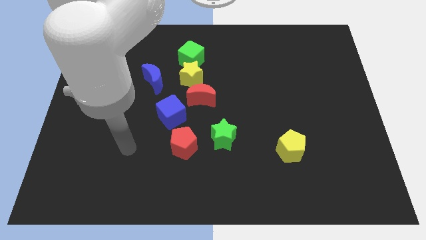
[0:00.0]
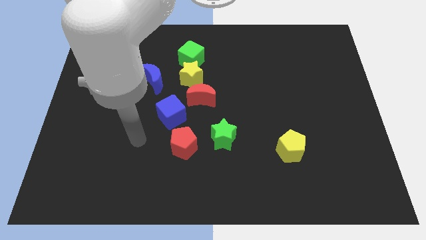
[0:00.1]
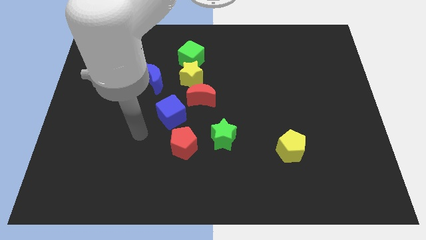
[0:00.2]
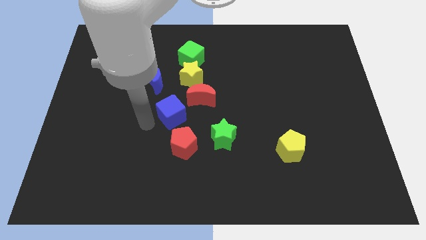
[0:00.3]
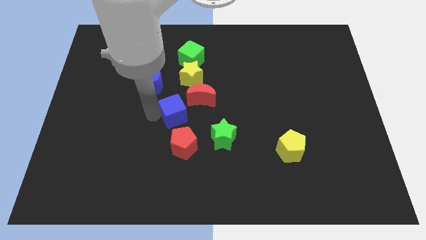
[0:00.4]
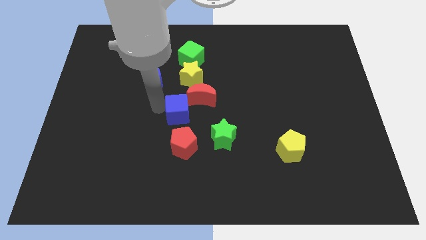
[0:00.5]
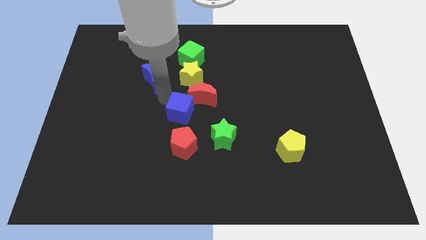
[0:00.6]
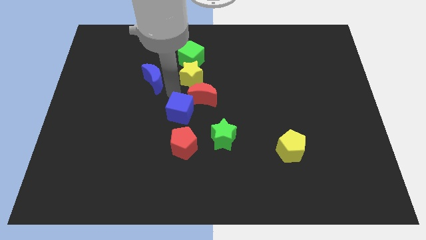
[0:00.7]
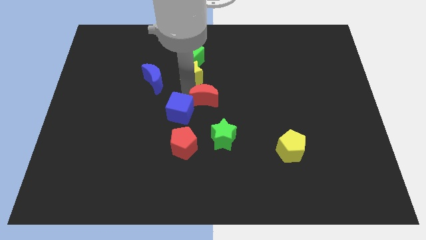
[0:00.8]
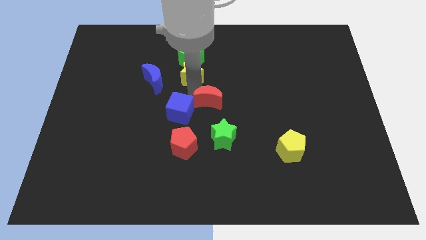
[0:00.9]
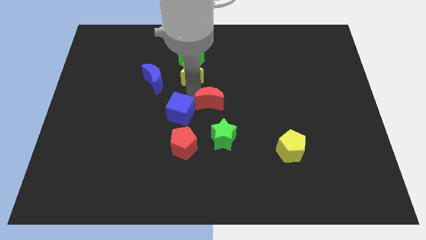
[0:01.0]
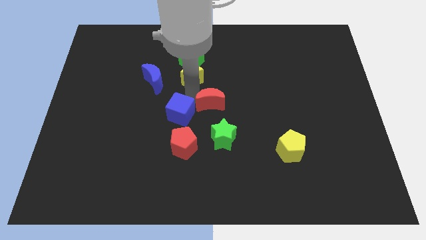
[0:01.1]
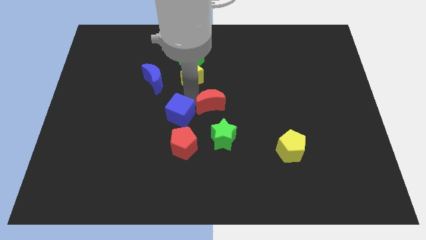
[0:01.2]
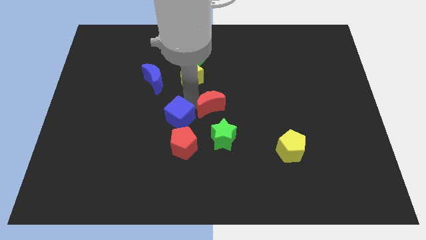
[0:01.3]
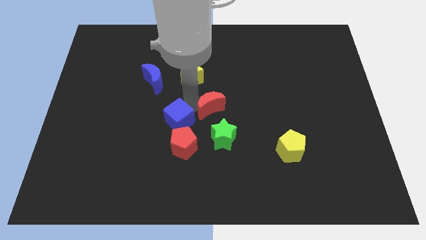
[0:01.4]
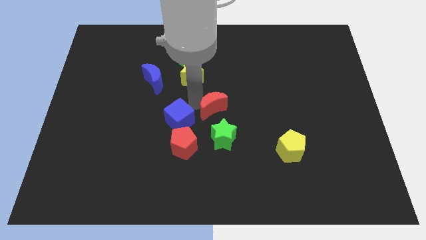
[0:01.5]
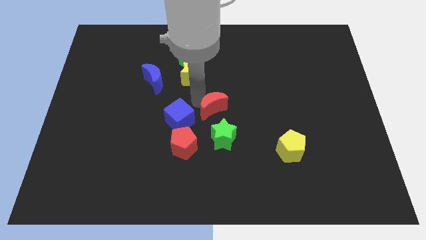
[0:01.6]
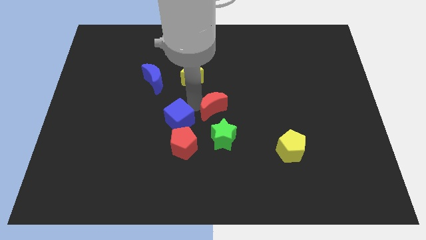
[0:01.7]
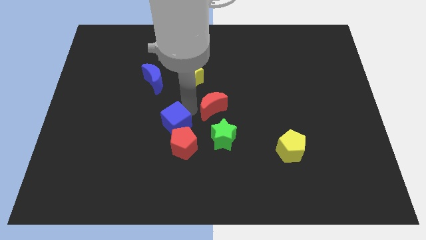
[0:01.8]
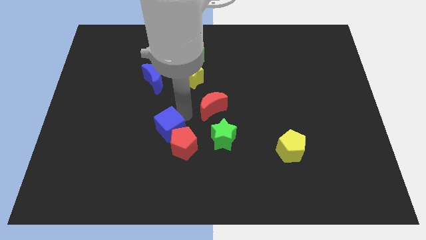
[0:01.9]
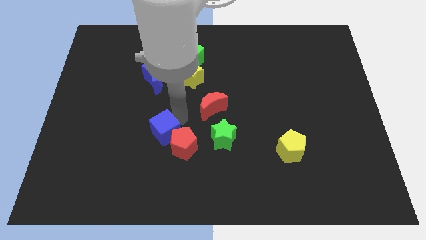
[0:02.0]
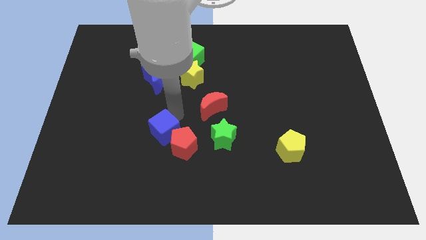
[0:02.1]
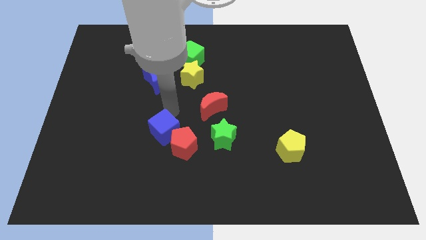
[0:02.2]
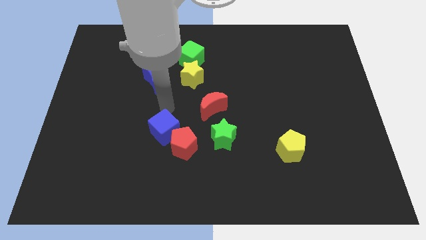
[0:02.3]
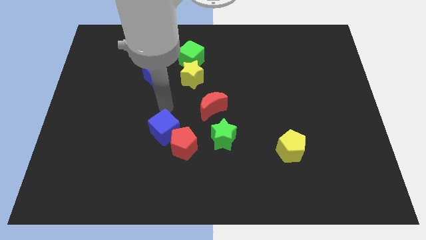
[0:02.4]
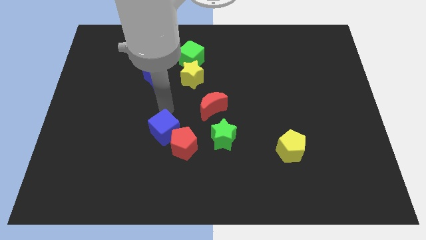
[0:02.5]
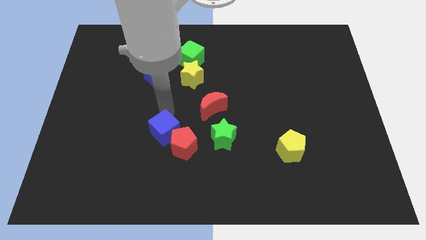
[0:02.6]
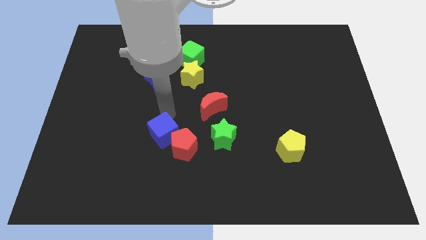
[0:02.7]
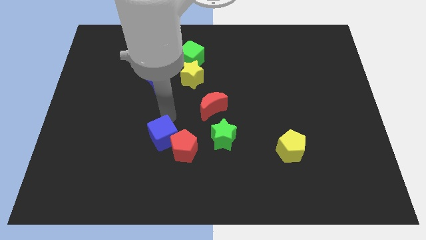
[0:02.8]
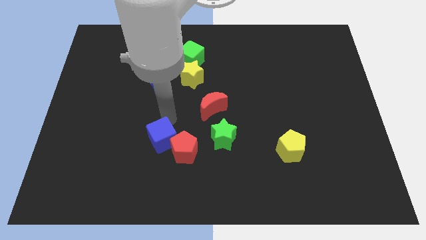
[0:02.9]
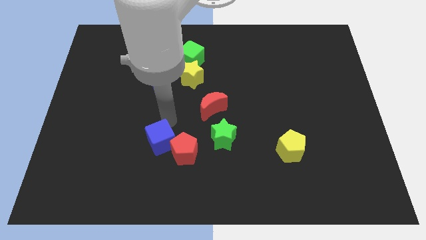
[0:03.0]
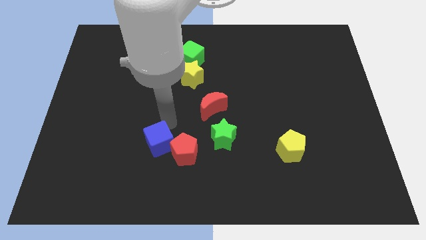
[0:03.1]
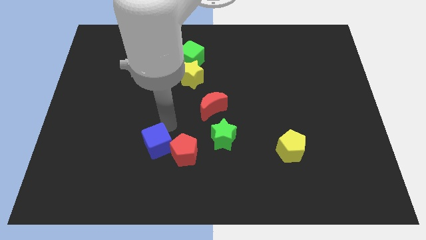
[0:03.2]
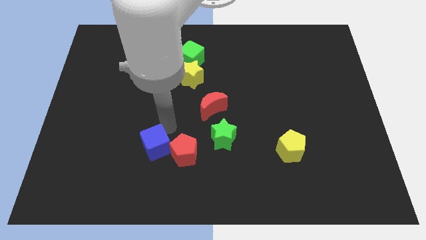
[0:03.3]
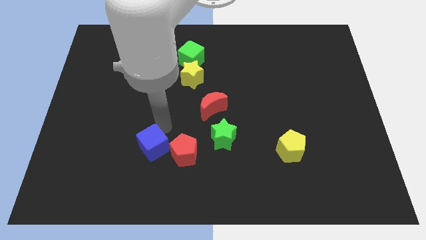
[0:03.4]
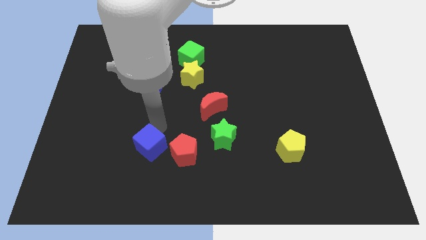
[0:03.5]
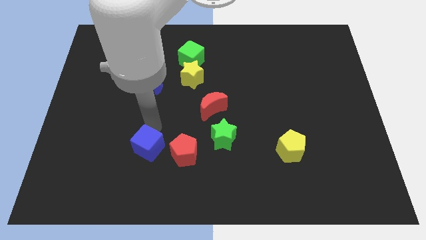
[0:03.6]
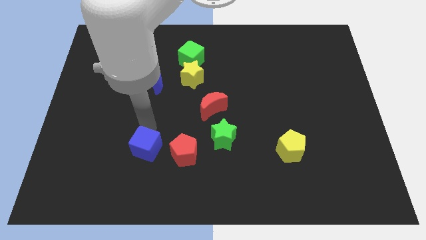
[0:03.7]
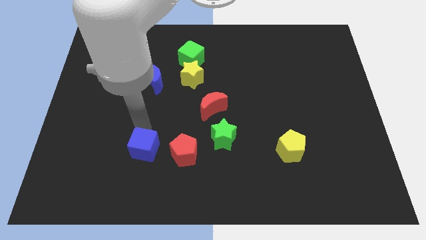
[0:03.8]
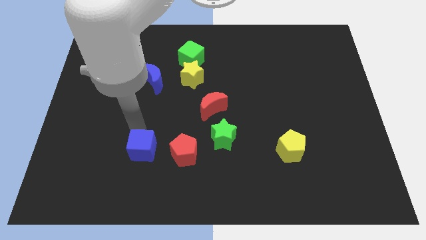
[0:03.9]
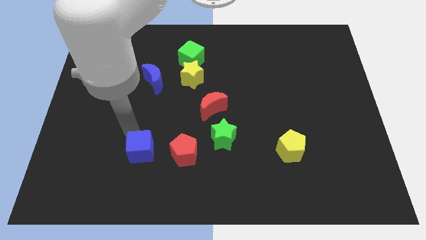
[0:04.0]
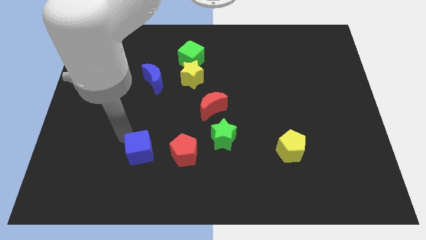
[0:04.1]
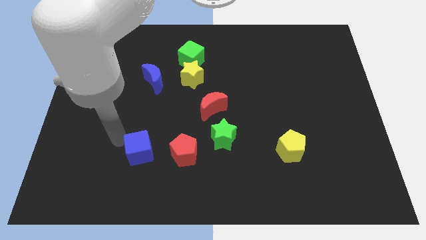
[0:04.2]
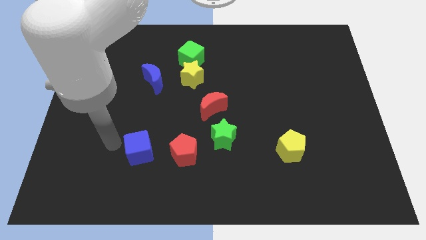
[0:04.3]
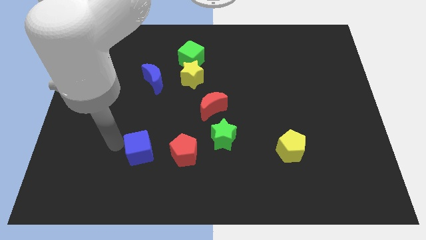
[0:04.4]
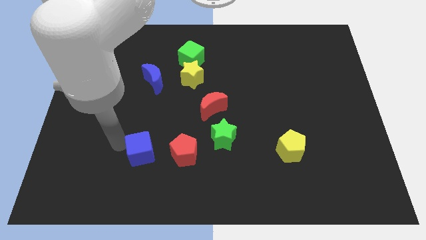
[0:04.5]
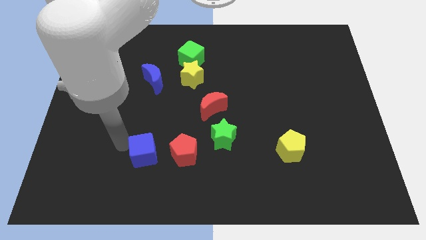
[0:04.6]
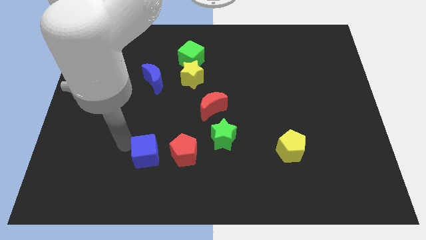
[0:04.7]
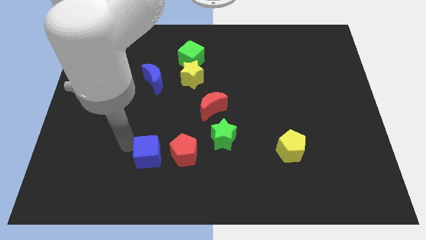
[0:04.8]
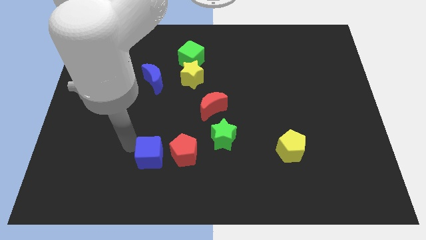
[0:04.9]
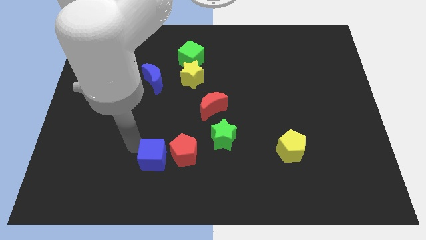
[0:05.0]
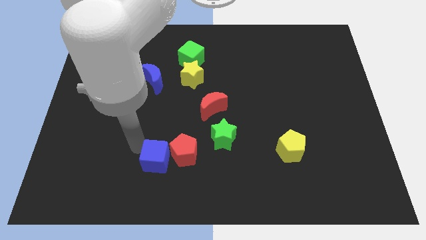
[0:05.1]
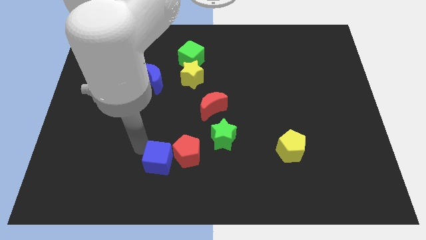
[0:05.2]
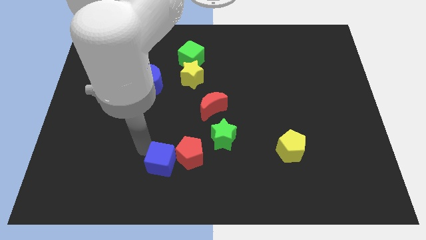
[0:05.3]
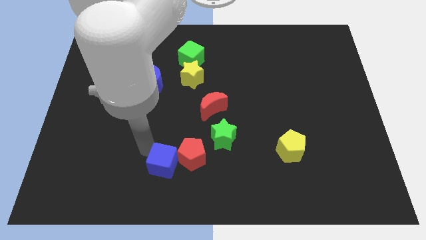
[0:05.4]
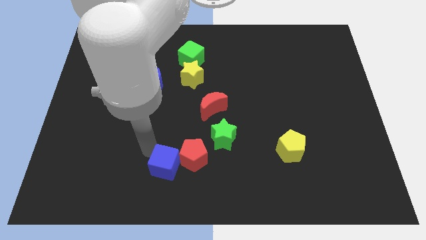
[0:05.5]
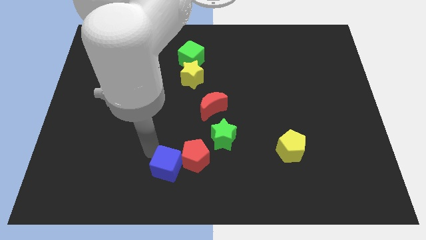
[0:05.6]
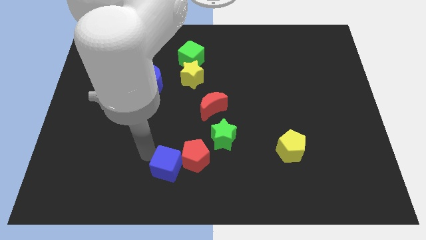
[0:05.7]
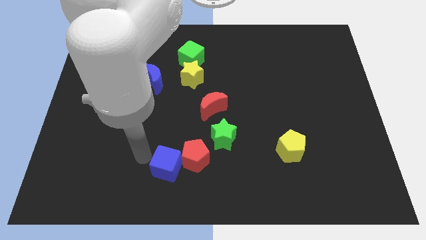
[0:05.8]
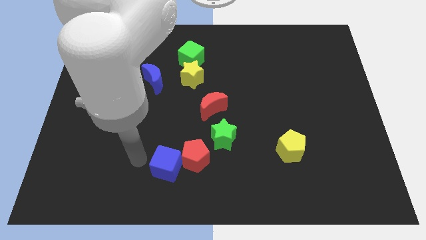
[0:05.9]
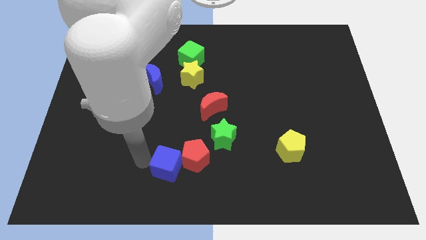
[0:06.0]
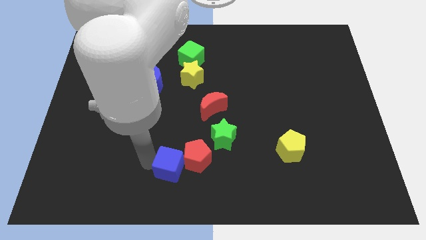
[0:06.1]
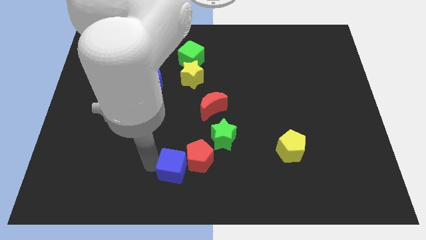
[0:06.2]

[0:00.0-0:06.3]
slightly push the blue cube down and right diagonally

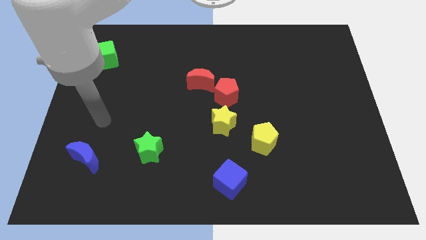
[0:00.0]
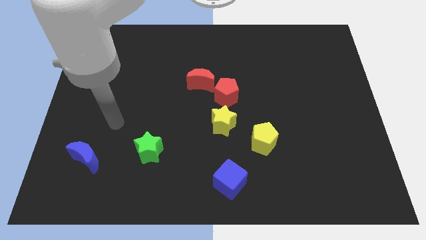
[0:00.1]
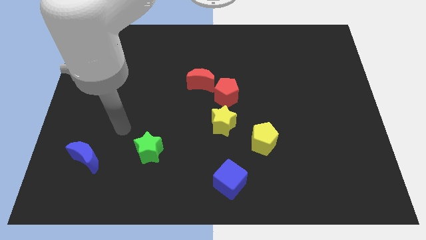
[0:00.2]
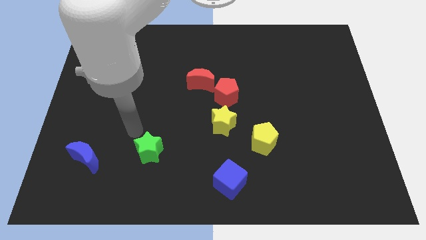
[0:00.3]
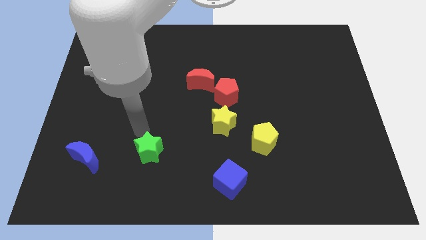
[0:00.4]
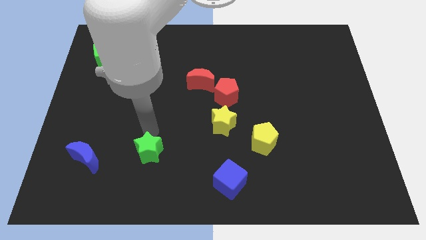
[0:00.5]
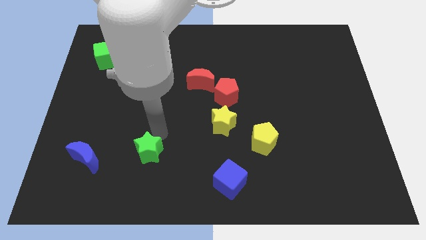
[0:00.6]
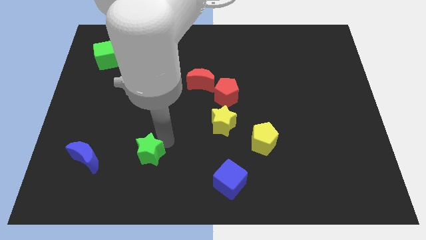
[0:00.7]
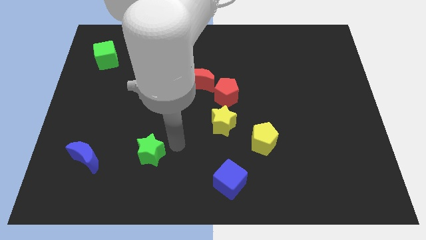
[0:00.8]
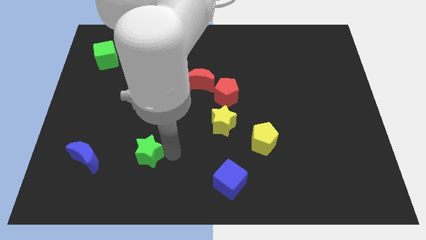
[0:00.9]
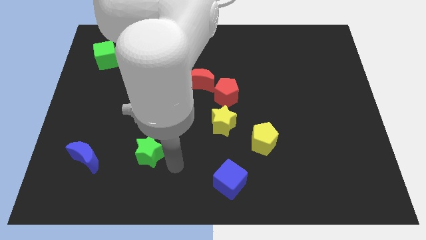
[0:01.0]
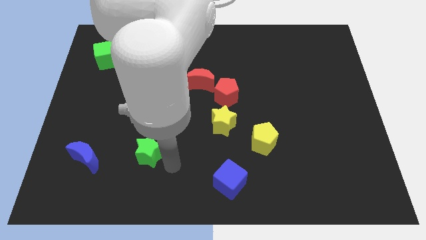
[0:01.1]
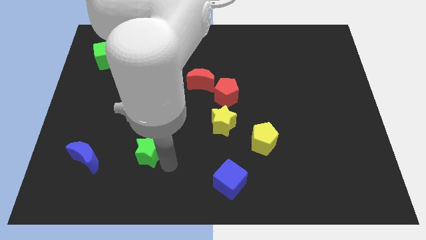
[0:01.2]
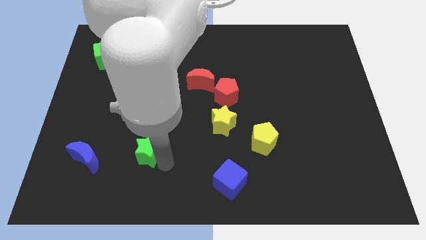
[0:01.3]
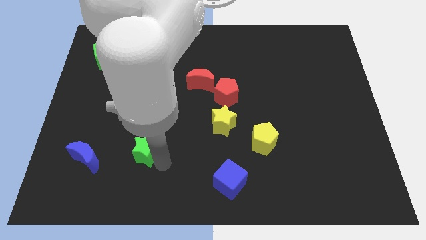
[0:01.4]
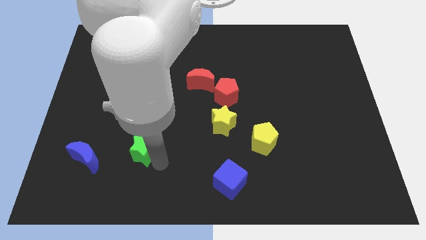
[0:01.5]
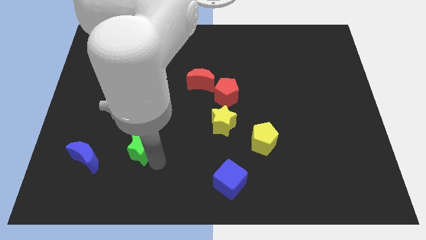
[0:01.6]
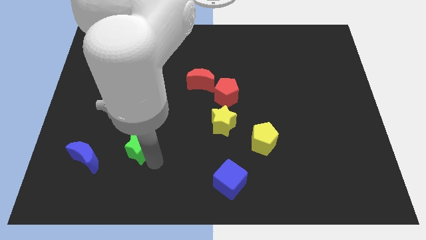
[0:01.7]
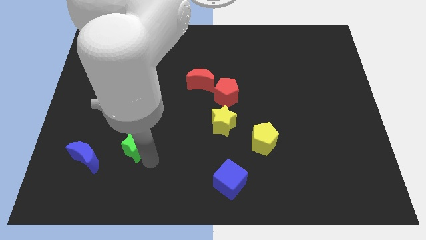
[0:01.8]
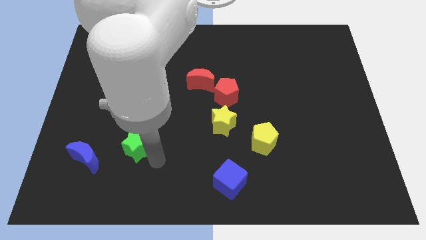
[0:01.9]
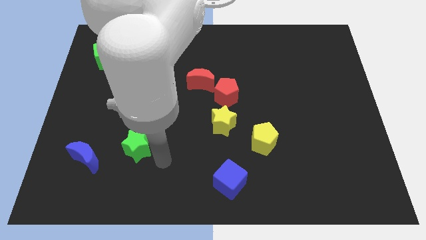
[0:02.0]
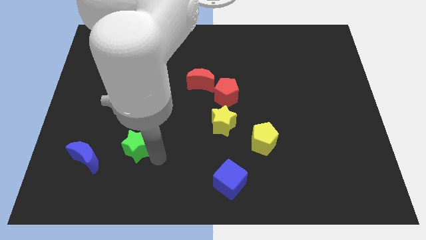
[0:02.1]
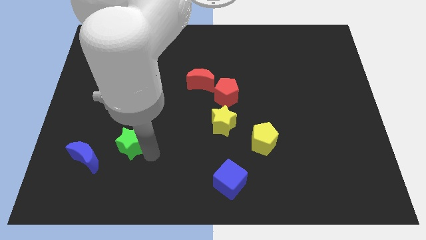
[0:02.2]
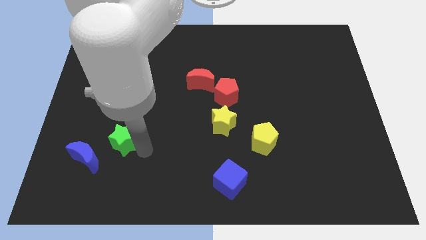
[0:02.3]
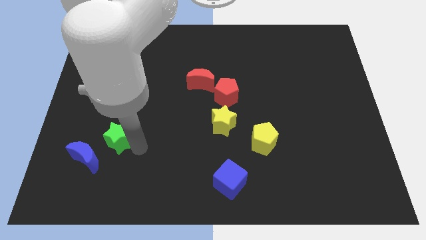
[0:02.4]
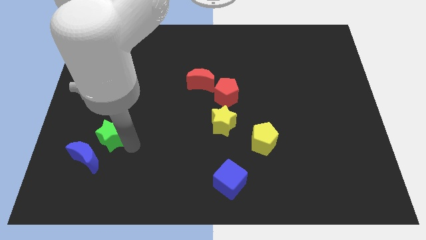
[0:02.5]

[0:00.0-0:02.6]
slightly slide the green star upwards and then to the left
